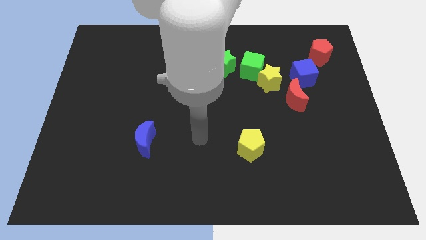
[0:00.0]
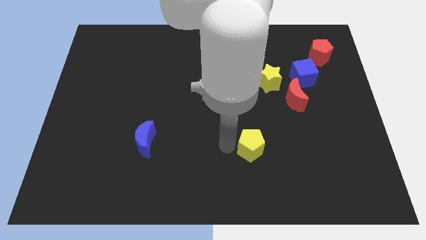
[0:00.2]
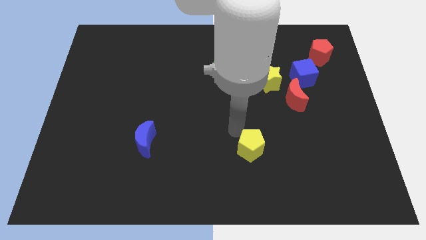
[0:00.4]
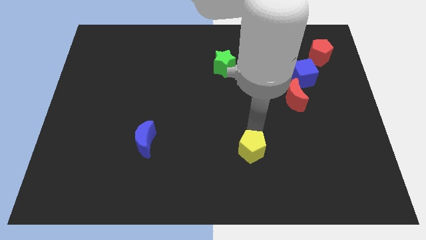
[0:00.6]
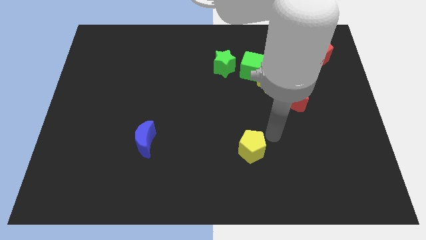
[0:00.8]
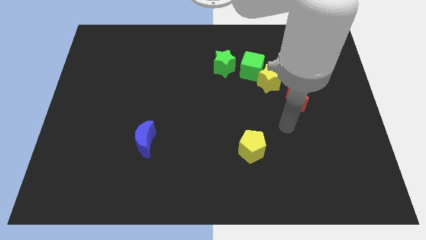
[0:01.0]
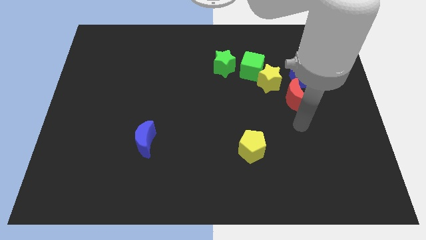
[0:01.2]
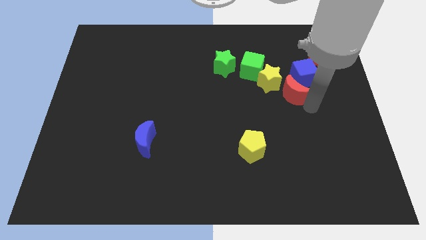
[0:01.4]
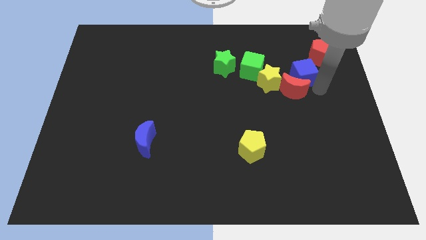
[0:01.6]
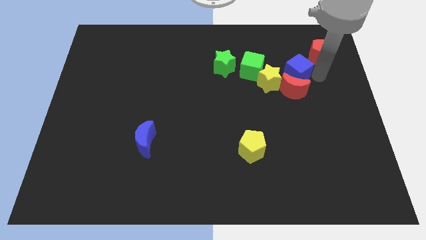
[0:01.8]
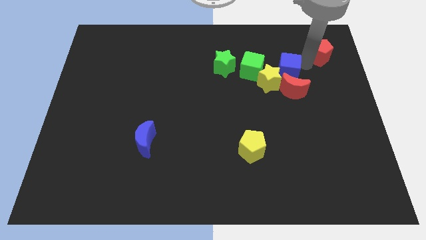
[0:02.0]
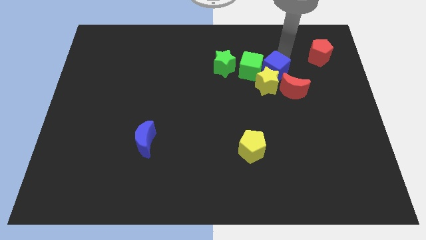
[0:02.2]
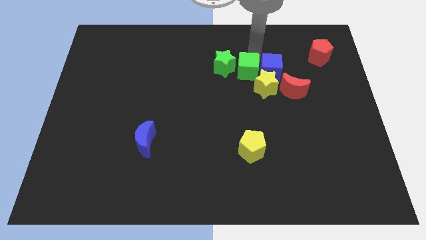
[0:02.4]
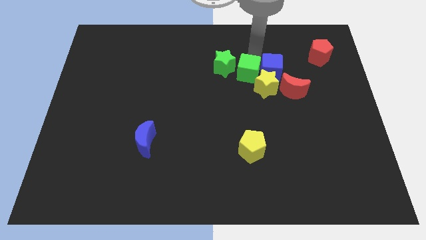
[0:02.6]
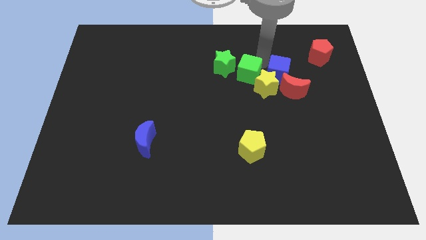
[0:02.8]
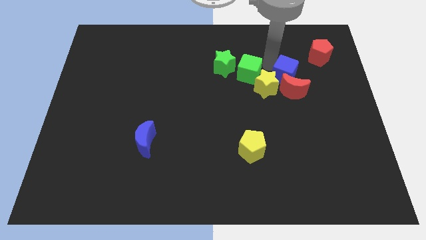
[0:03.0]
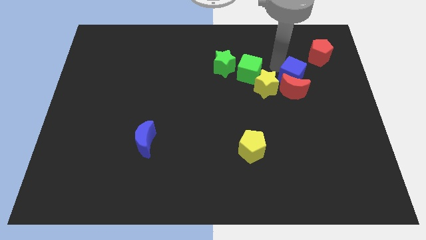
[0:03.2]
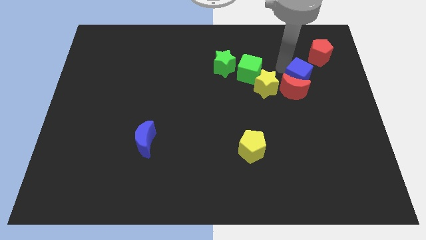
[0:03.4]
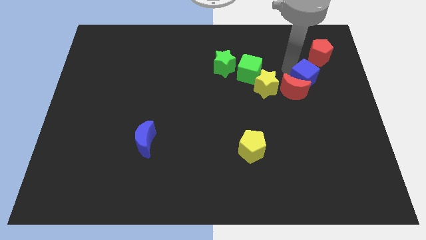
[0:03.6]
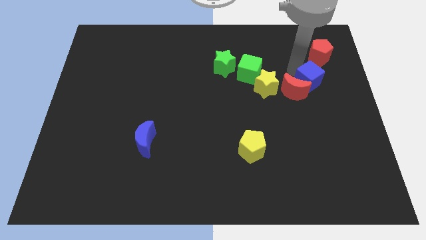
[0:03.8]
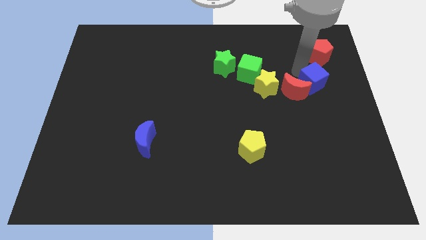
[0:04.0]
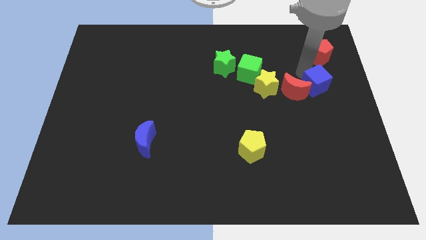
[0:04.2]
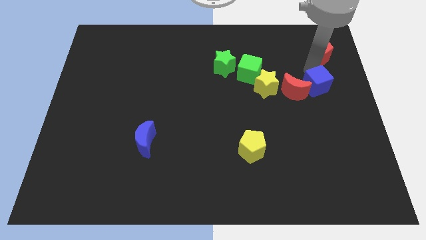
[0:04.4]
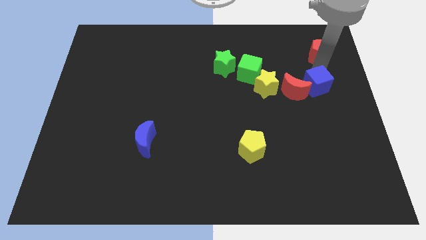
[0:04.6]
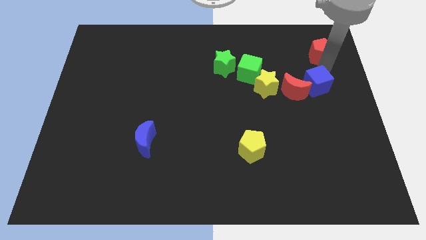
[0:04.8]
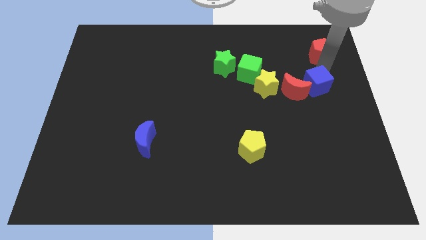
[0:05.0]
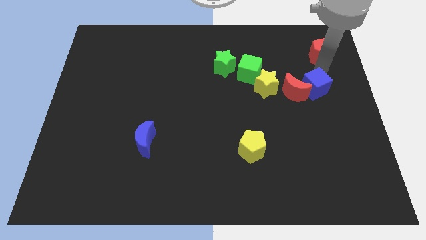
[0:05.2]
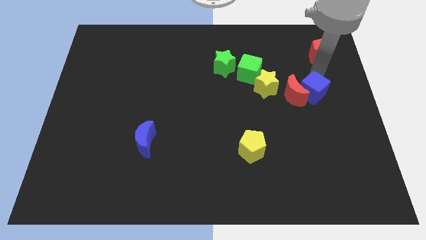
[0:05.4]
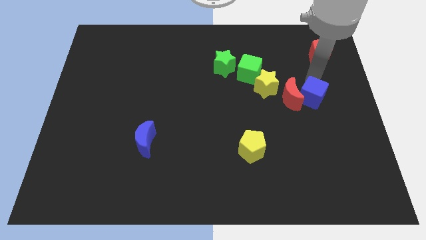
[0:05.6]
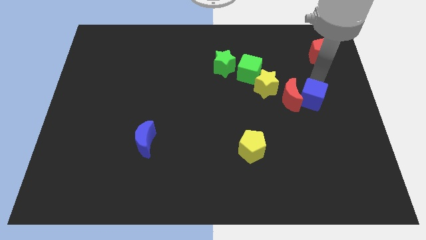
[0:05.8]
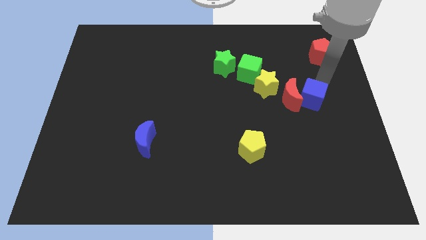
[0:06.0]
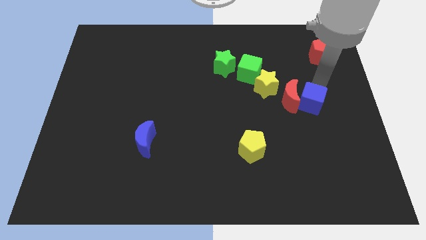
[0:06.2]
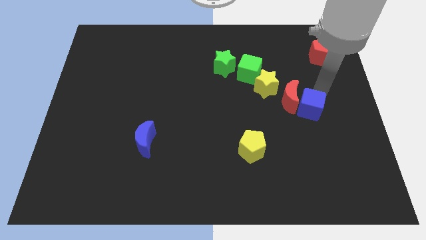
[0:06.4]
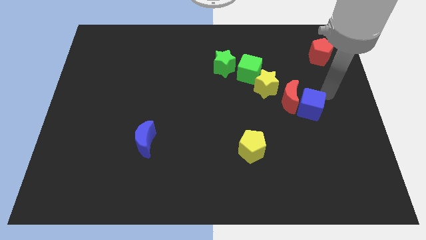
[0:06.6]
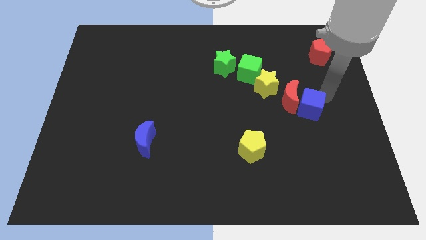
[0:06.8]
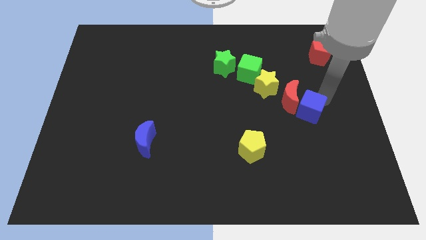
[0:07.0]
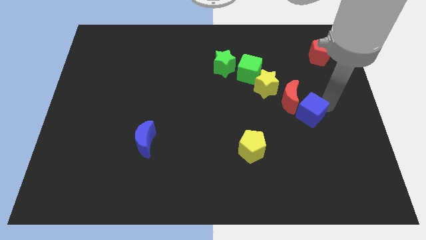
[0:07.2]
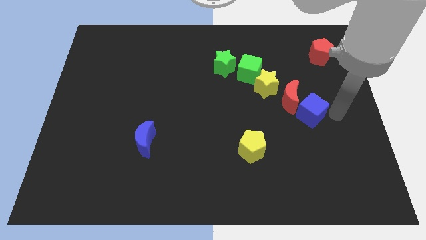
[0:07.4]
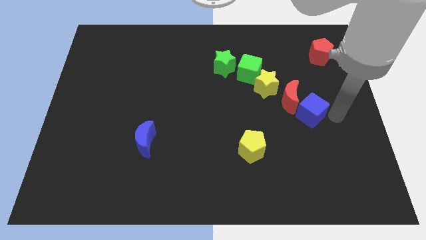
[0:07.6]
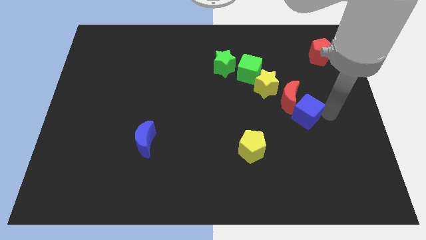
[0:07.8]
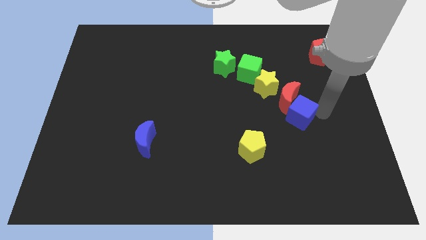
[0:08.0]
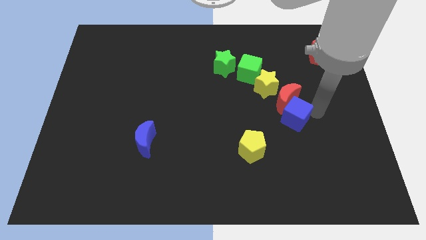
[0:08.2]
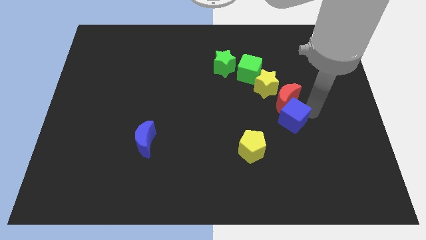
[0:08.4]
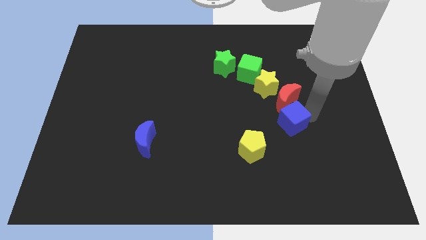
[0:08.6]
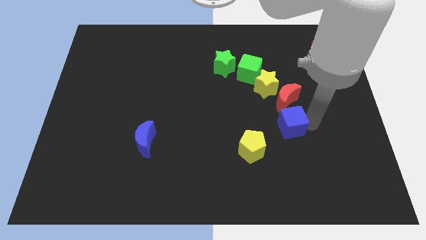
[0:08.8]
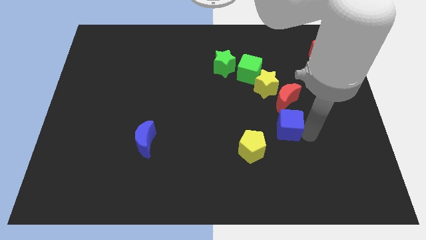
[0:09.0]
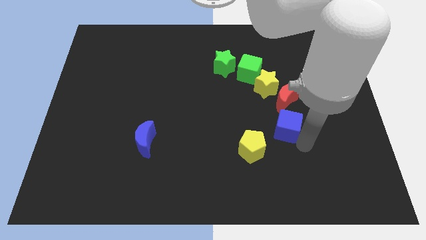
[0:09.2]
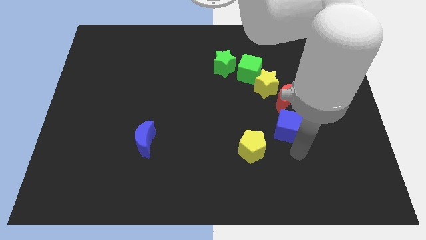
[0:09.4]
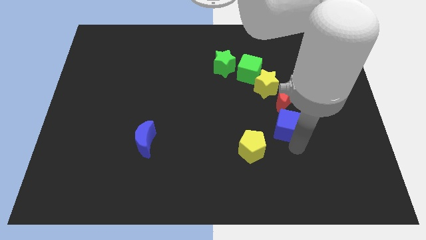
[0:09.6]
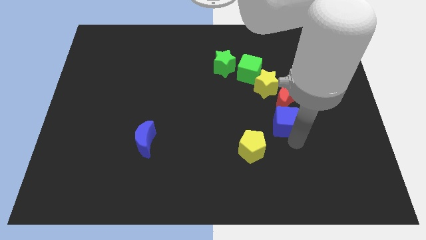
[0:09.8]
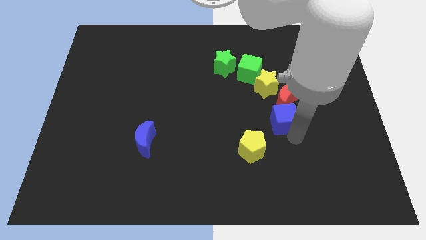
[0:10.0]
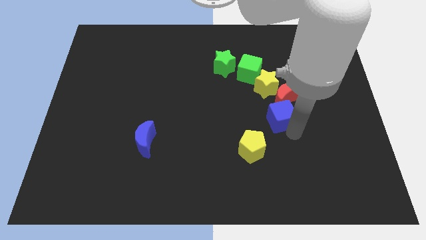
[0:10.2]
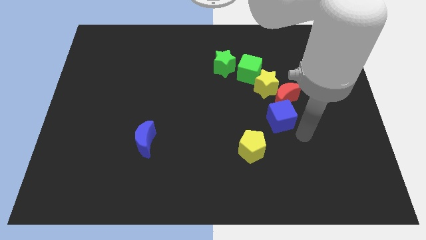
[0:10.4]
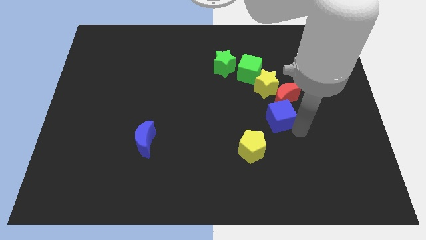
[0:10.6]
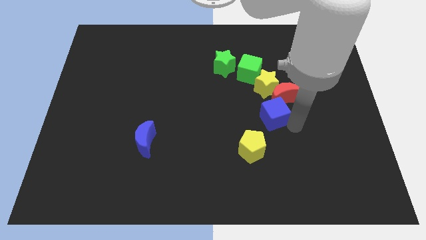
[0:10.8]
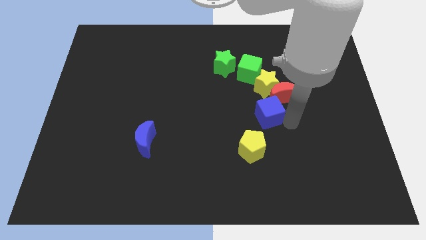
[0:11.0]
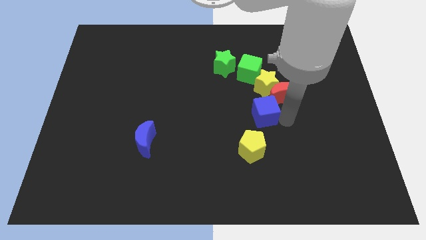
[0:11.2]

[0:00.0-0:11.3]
push the blue cube to the middle of the board

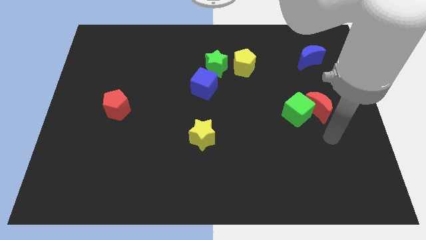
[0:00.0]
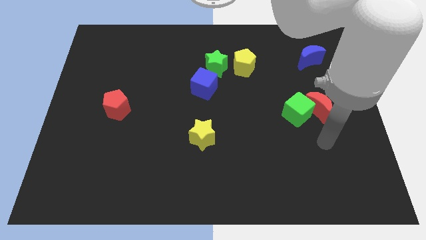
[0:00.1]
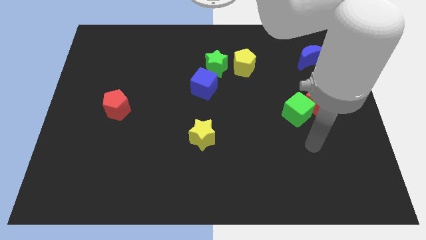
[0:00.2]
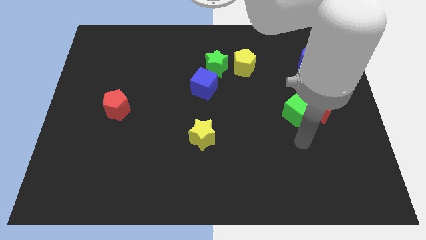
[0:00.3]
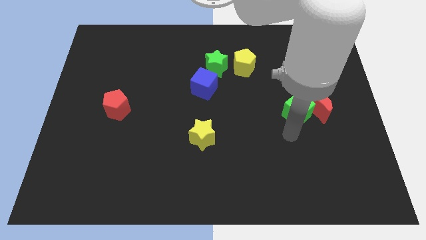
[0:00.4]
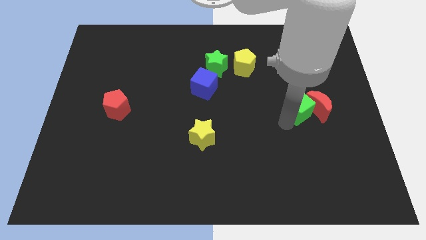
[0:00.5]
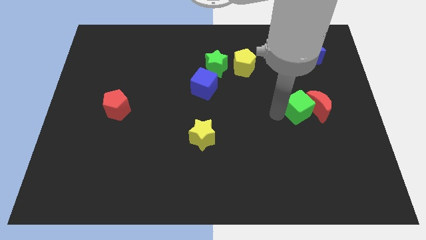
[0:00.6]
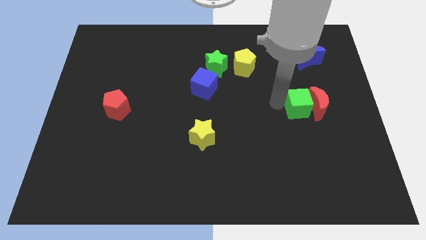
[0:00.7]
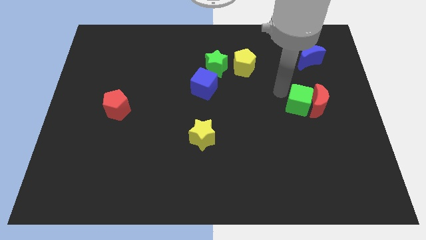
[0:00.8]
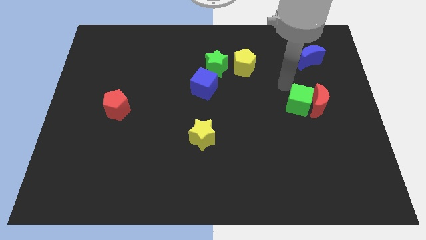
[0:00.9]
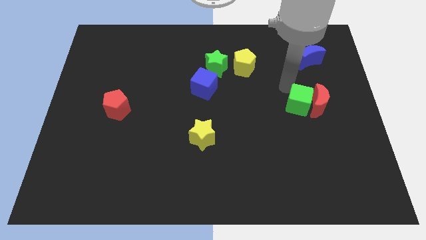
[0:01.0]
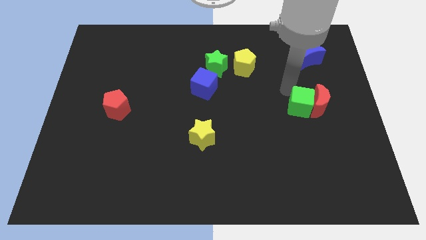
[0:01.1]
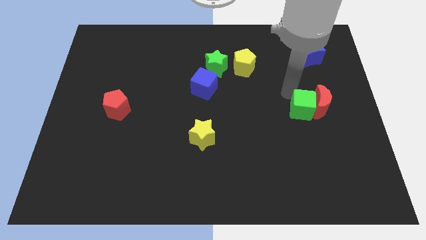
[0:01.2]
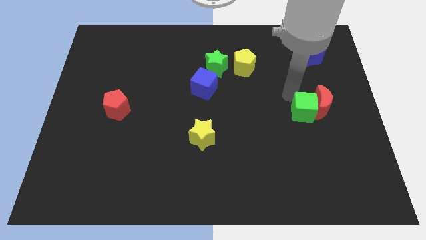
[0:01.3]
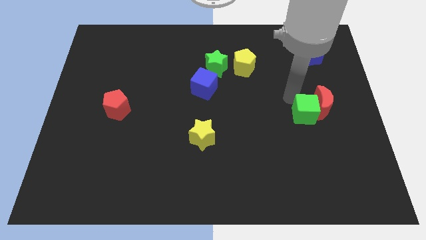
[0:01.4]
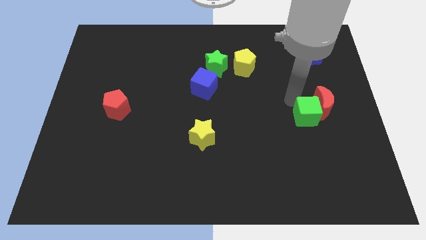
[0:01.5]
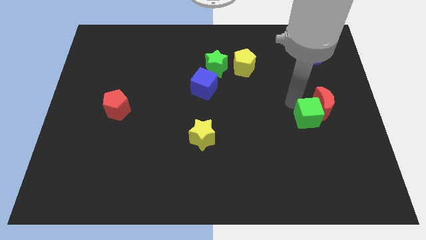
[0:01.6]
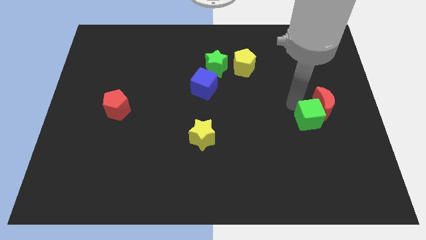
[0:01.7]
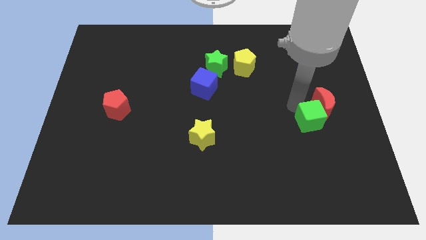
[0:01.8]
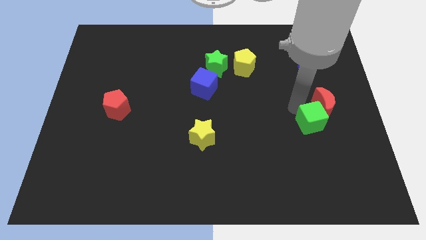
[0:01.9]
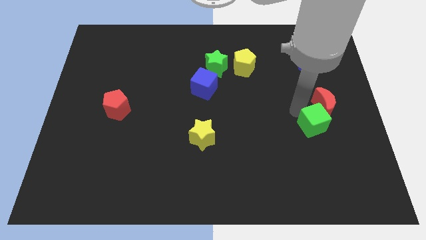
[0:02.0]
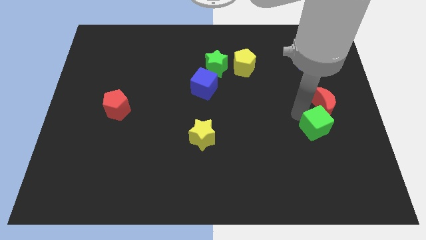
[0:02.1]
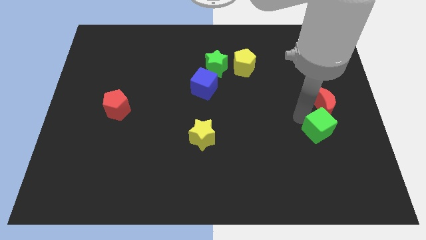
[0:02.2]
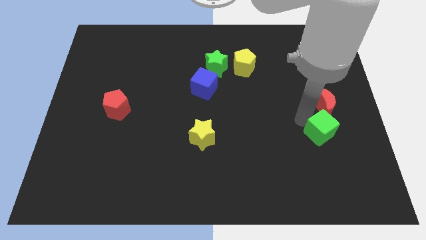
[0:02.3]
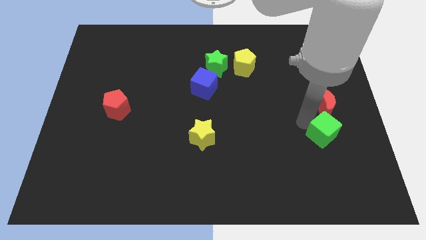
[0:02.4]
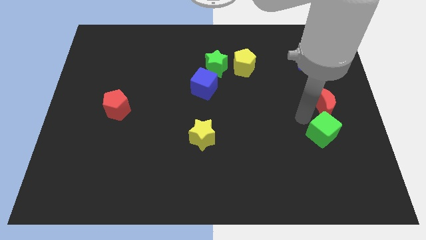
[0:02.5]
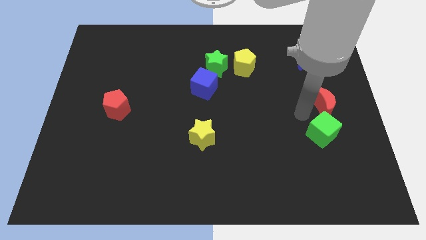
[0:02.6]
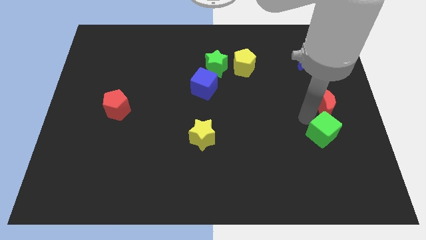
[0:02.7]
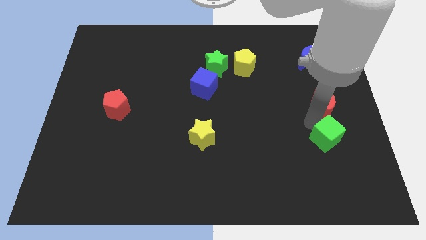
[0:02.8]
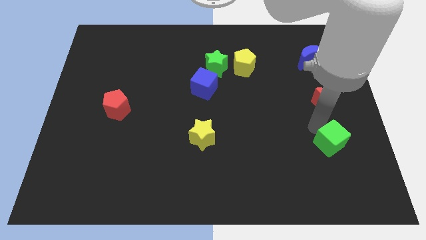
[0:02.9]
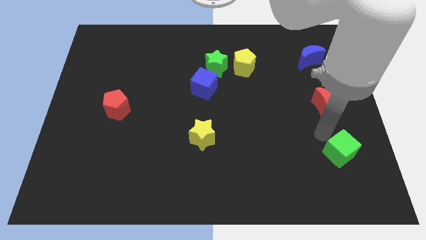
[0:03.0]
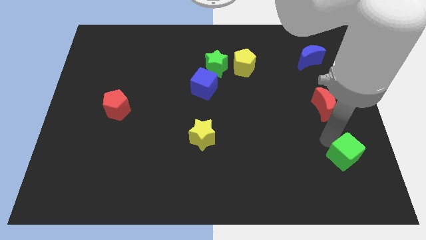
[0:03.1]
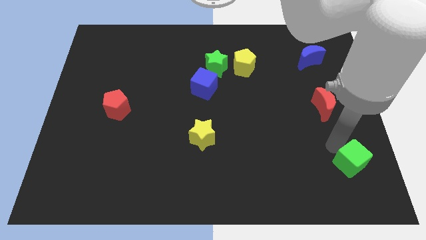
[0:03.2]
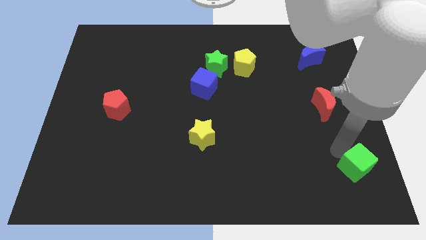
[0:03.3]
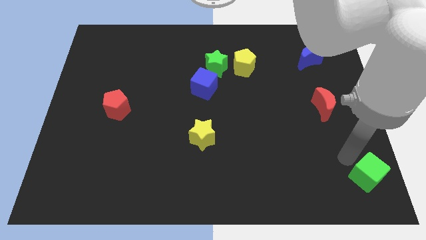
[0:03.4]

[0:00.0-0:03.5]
slide the green cube to the bottom right corner
